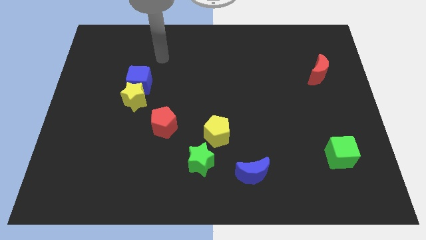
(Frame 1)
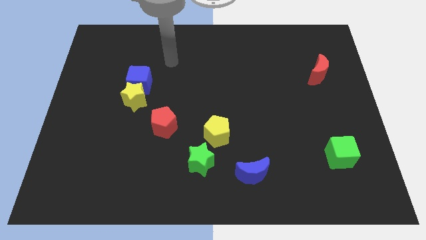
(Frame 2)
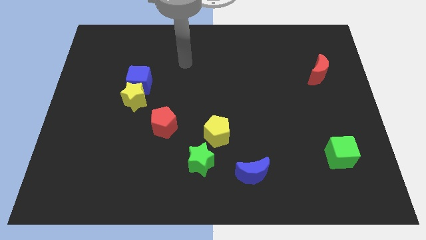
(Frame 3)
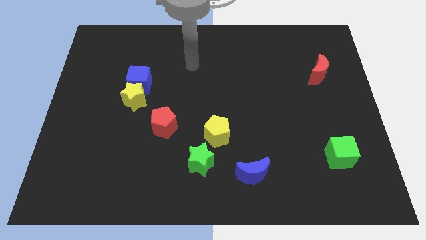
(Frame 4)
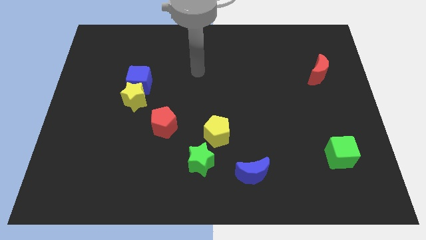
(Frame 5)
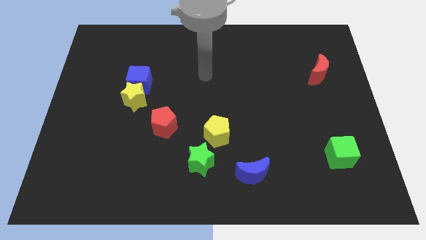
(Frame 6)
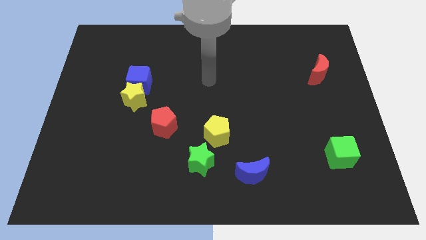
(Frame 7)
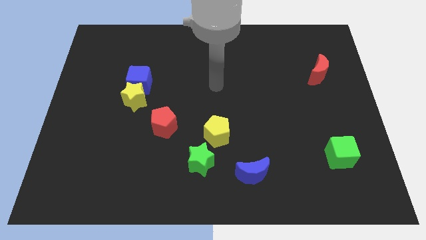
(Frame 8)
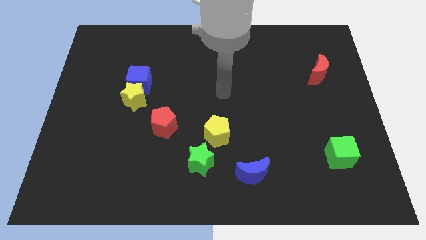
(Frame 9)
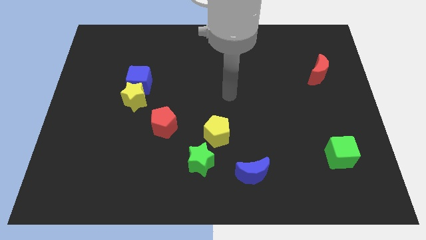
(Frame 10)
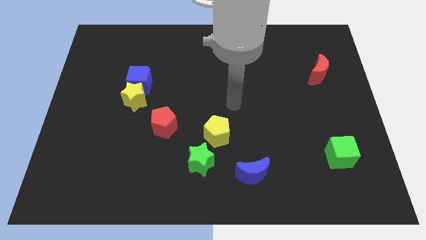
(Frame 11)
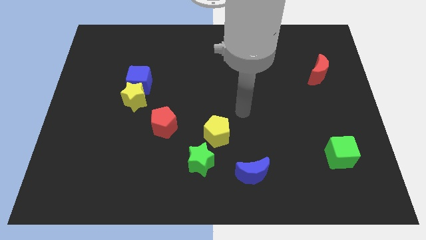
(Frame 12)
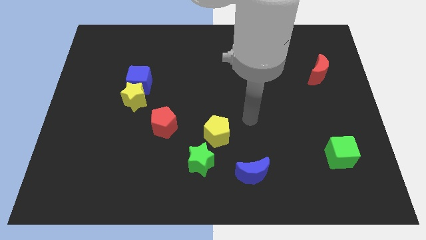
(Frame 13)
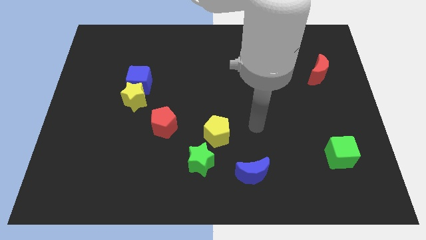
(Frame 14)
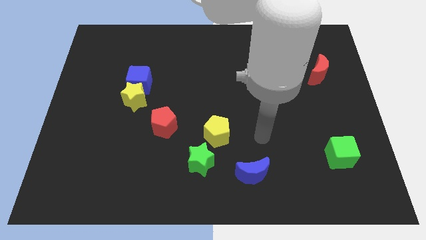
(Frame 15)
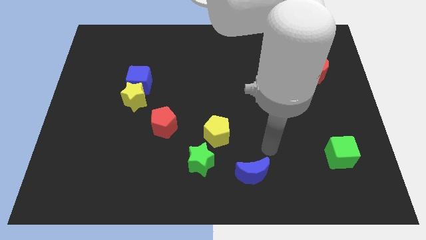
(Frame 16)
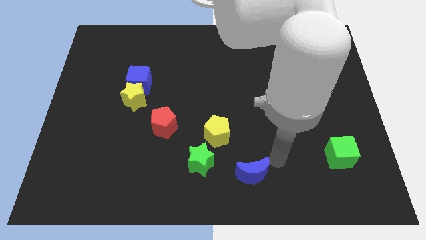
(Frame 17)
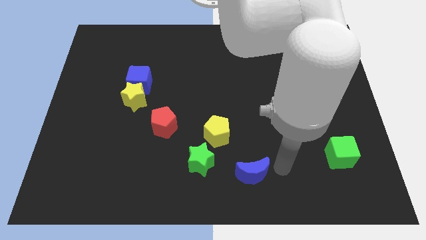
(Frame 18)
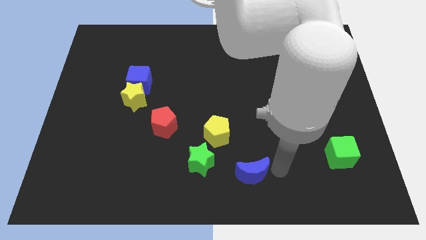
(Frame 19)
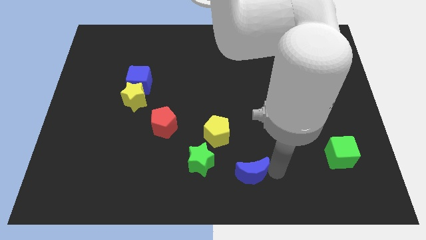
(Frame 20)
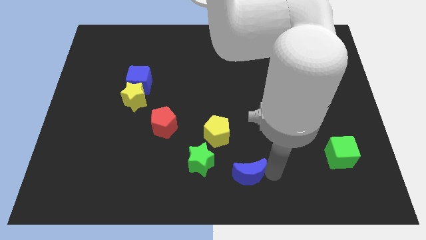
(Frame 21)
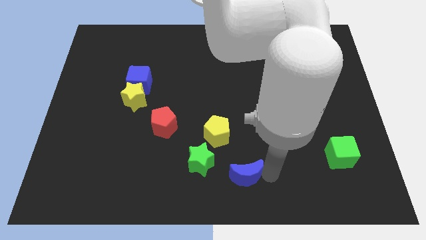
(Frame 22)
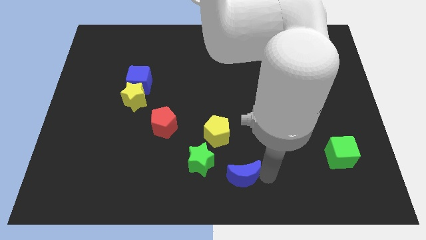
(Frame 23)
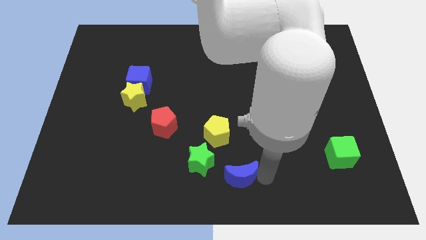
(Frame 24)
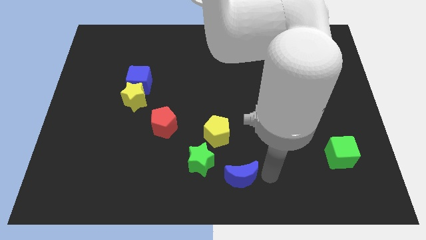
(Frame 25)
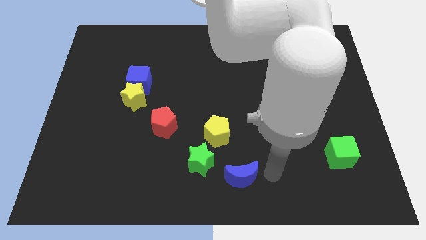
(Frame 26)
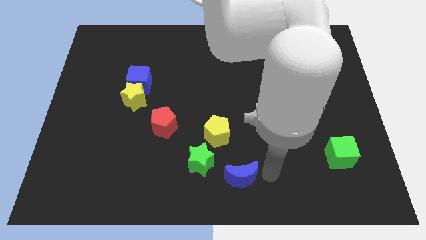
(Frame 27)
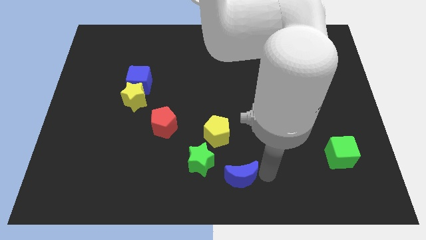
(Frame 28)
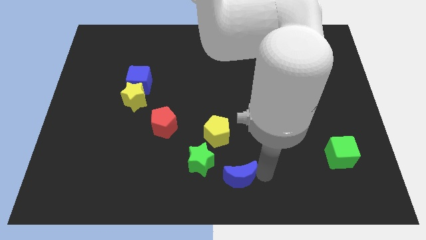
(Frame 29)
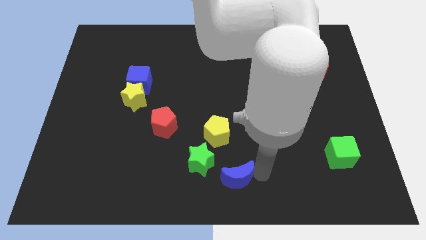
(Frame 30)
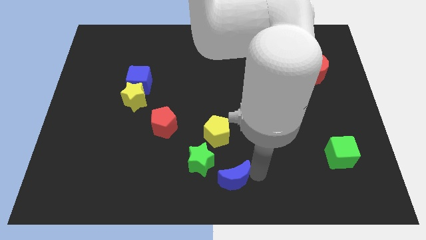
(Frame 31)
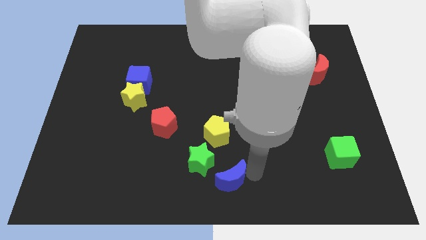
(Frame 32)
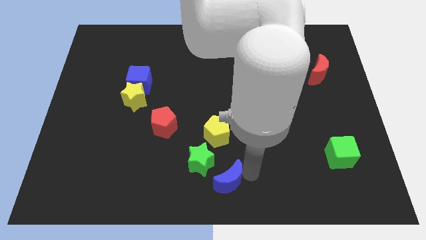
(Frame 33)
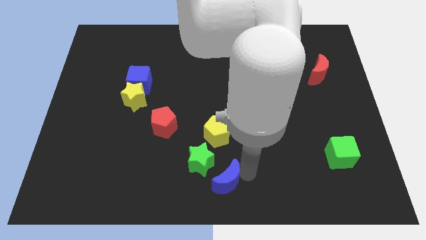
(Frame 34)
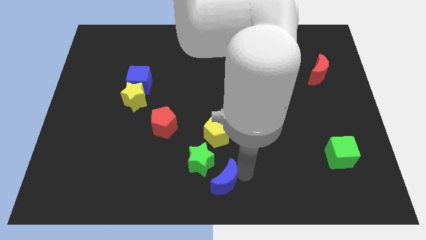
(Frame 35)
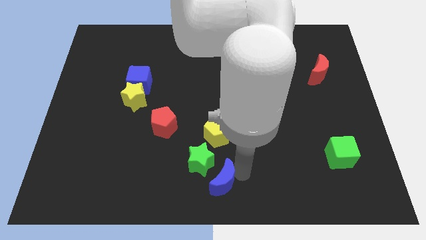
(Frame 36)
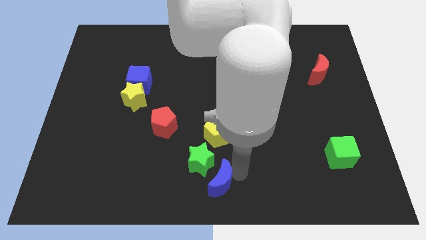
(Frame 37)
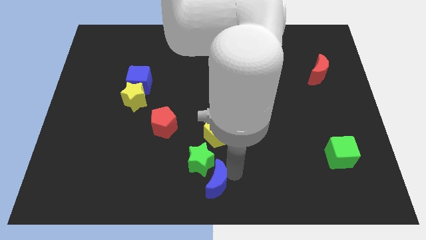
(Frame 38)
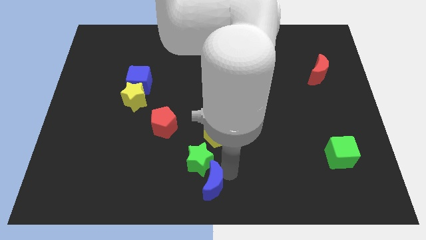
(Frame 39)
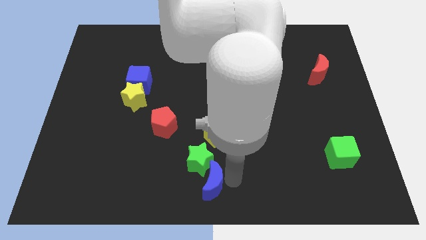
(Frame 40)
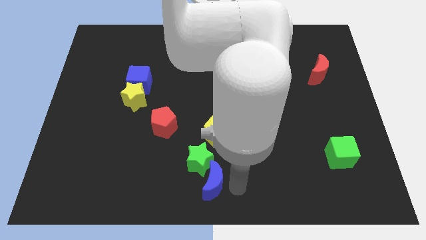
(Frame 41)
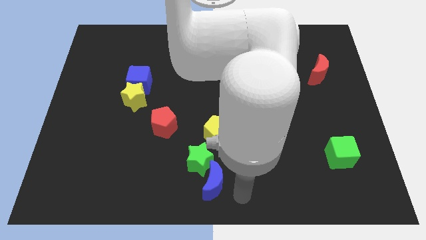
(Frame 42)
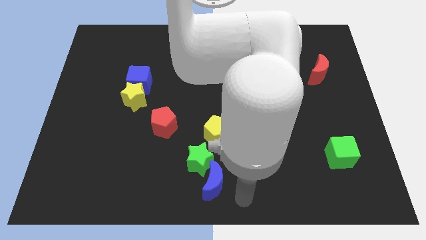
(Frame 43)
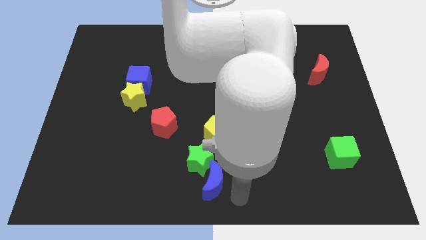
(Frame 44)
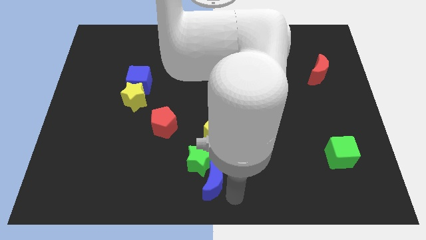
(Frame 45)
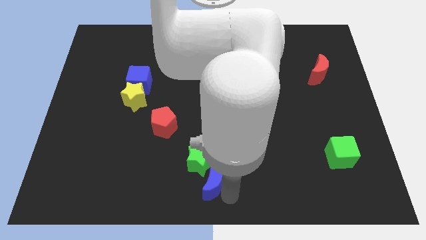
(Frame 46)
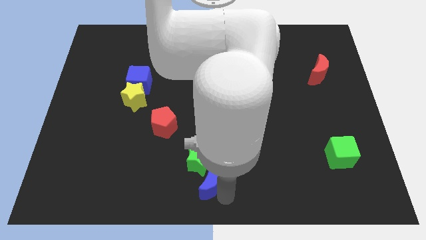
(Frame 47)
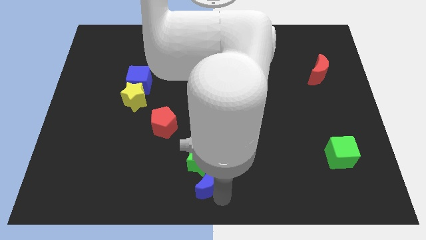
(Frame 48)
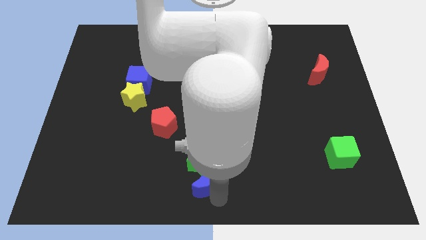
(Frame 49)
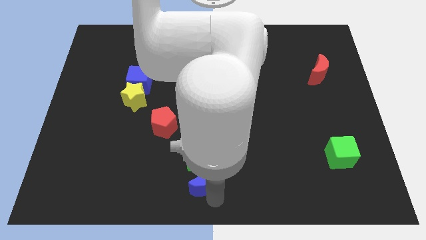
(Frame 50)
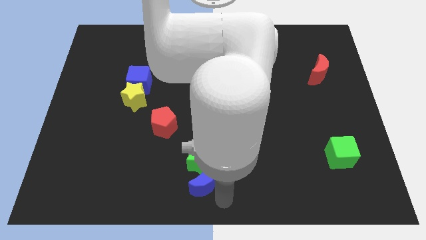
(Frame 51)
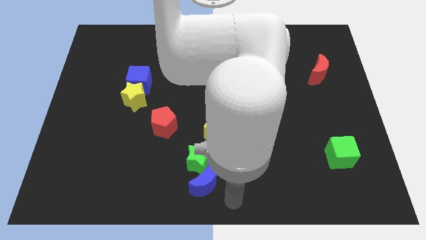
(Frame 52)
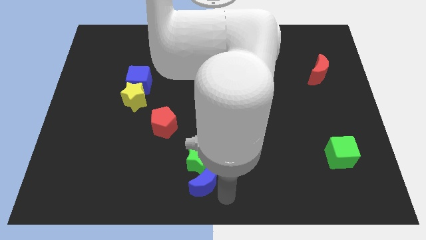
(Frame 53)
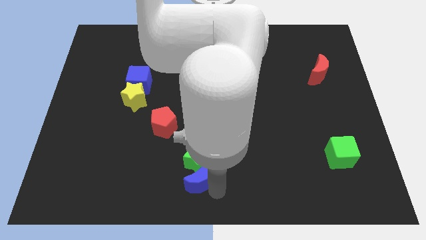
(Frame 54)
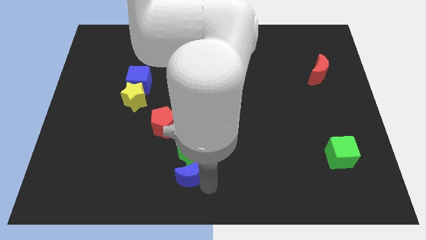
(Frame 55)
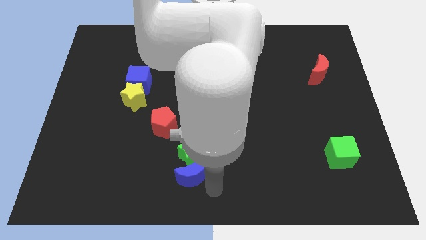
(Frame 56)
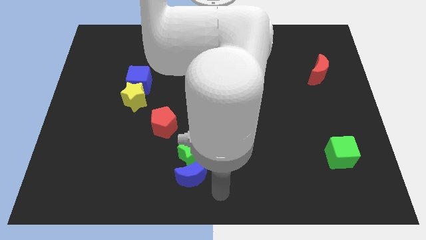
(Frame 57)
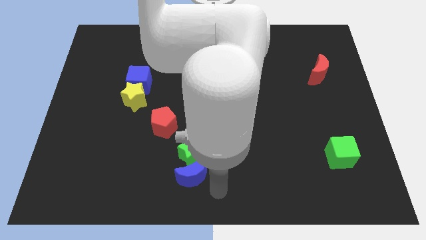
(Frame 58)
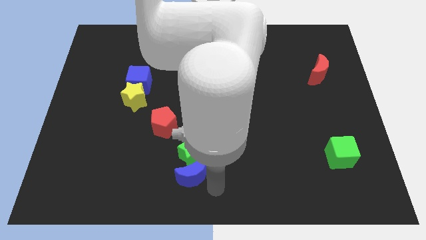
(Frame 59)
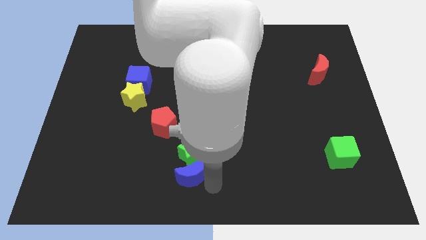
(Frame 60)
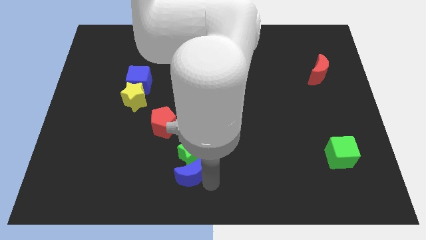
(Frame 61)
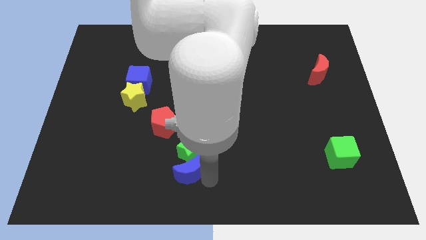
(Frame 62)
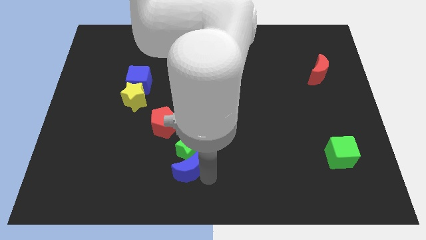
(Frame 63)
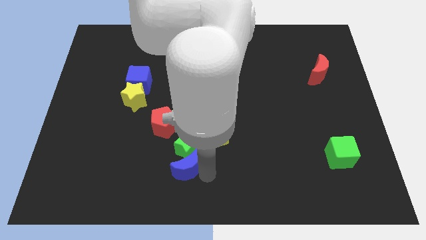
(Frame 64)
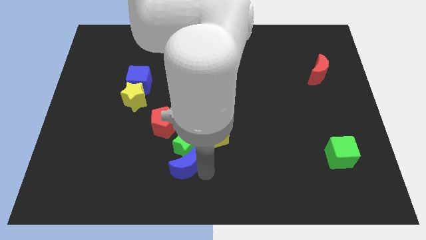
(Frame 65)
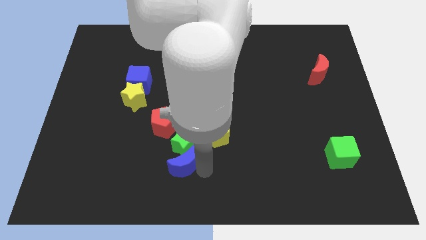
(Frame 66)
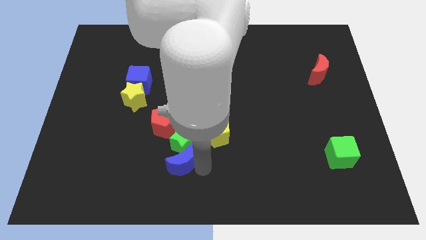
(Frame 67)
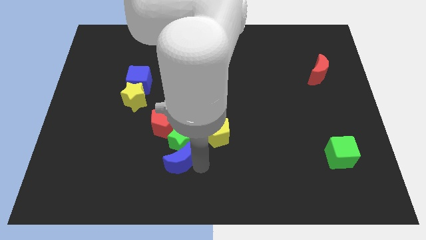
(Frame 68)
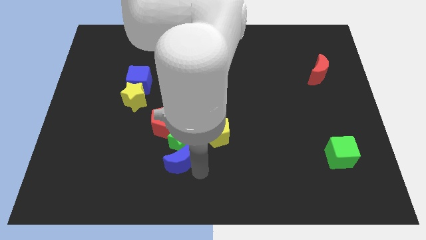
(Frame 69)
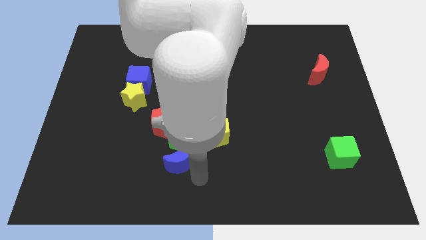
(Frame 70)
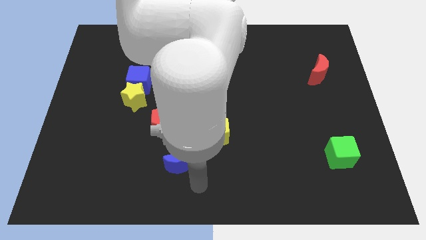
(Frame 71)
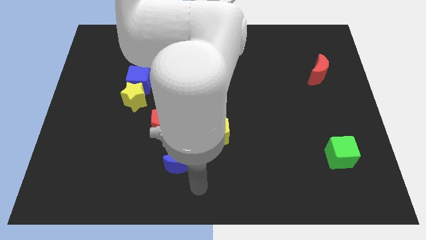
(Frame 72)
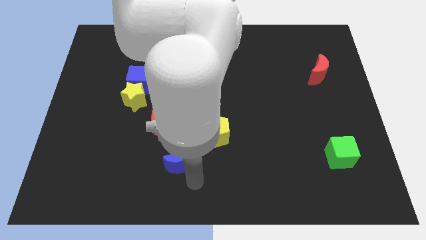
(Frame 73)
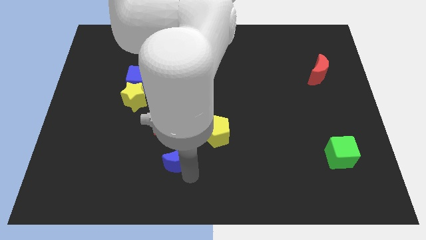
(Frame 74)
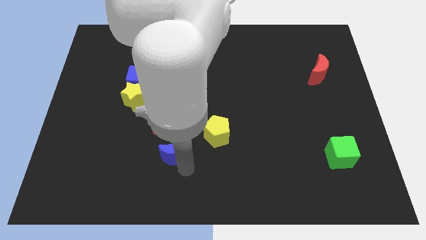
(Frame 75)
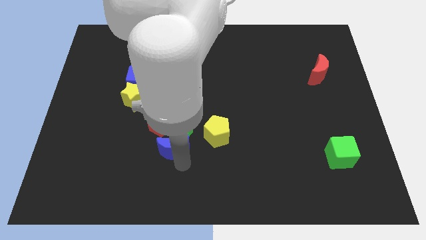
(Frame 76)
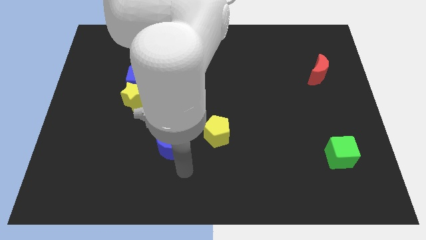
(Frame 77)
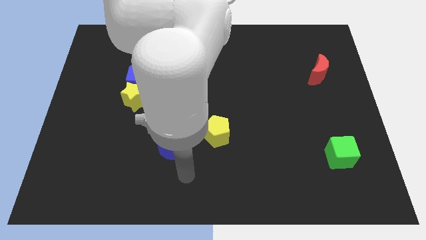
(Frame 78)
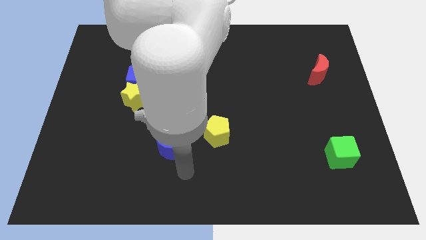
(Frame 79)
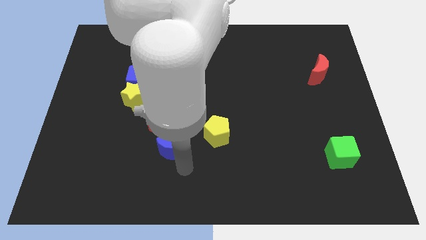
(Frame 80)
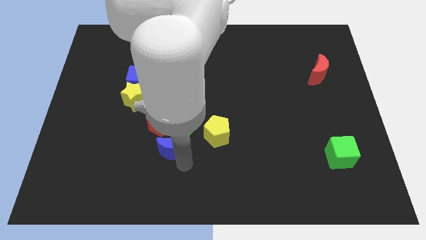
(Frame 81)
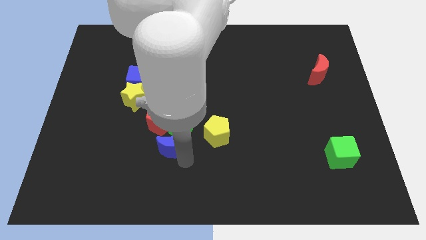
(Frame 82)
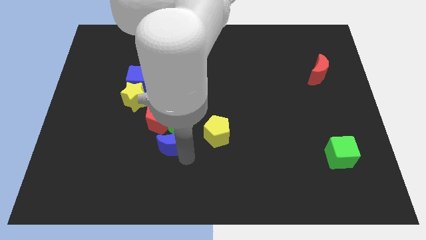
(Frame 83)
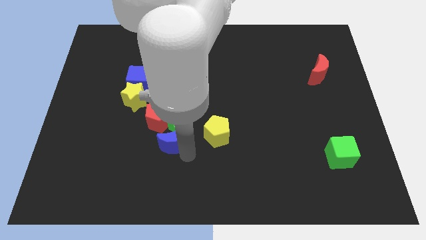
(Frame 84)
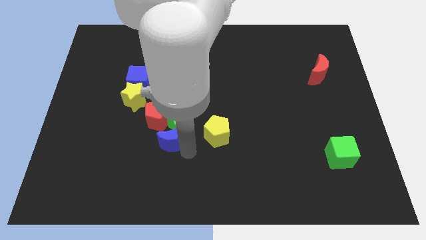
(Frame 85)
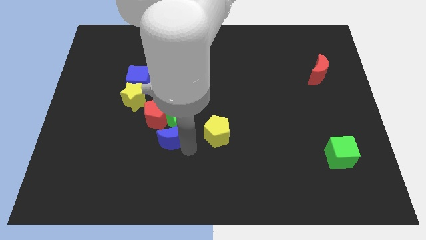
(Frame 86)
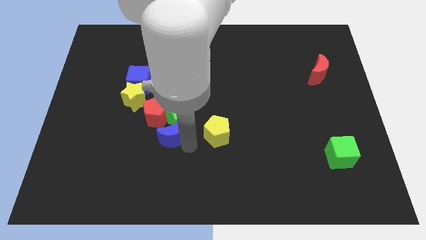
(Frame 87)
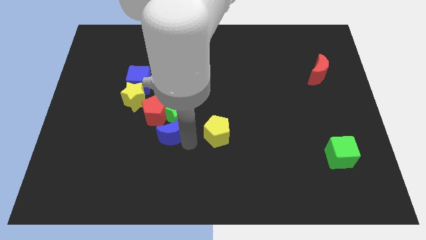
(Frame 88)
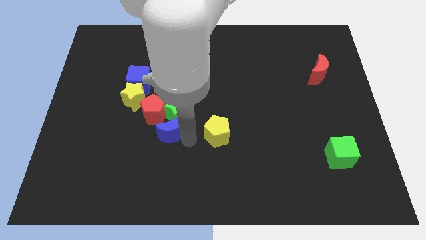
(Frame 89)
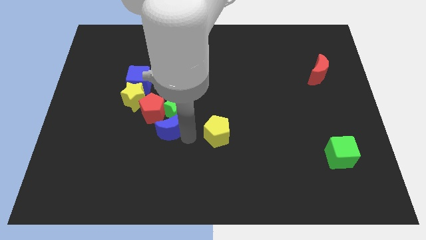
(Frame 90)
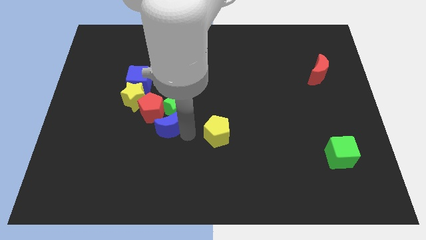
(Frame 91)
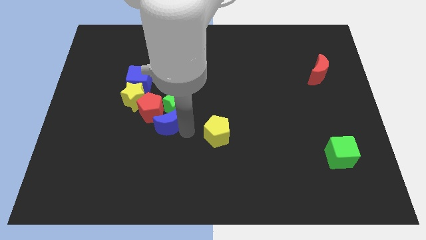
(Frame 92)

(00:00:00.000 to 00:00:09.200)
put the blue moon to the red pentagon
